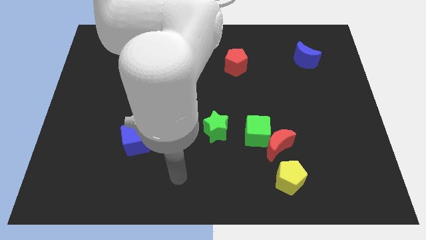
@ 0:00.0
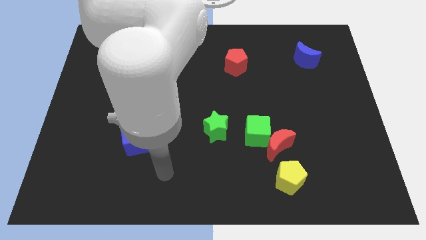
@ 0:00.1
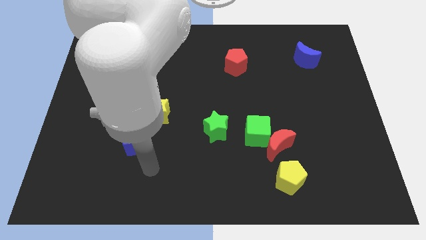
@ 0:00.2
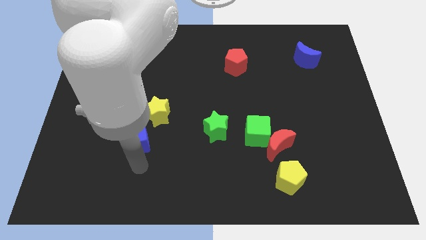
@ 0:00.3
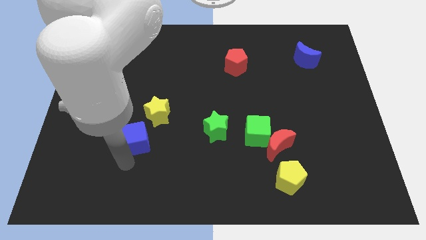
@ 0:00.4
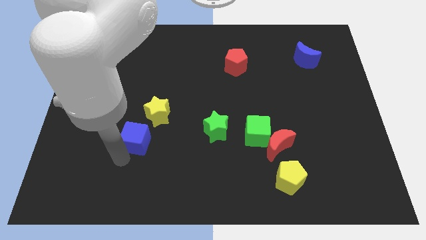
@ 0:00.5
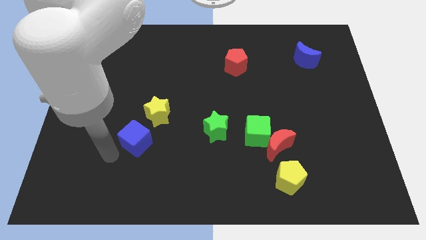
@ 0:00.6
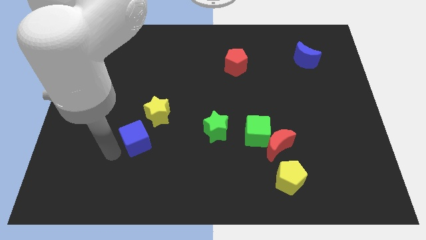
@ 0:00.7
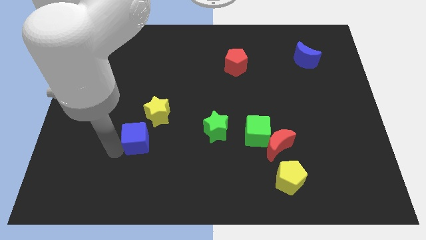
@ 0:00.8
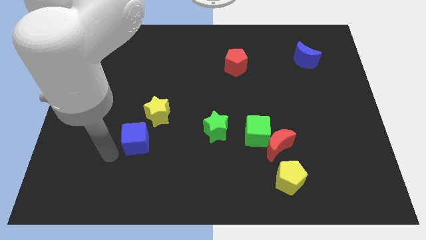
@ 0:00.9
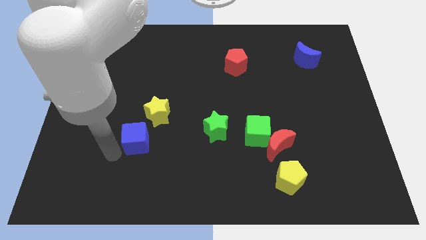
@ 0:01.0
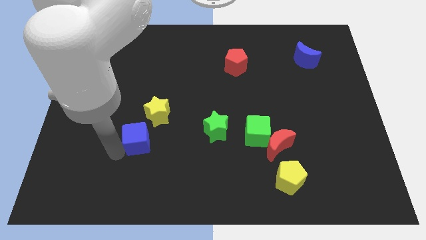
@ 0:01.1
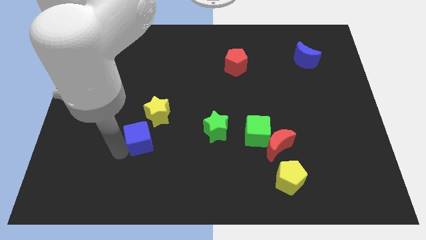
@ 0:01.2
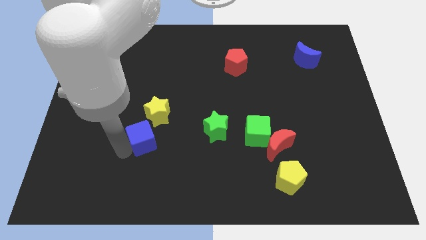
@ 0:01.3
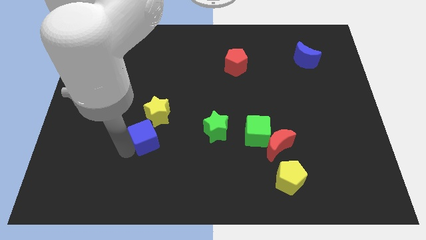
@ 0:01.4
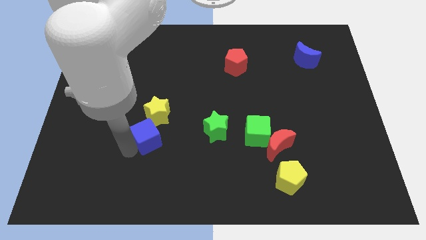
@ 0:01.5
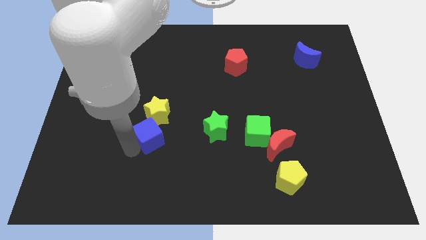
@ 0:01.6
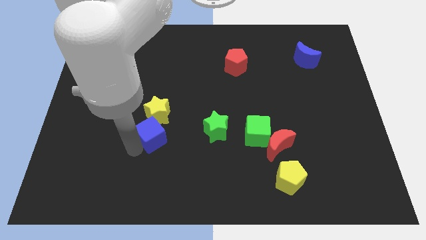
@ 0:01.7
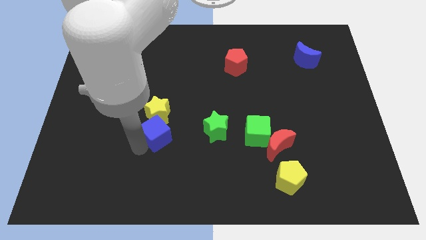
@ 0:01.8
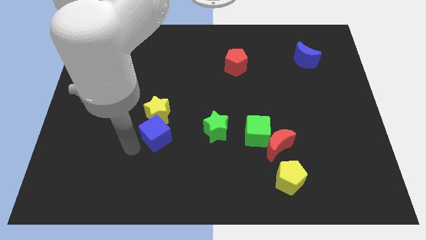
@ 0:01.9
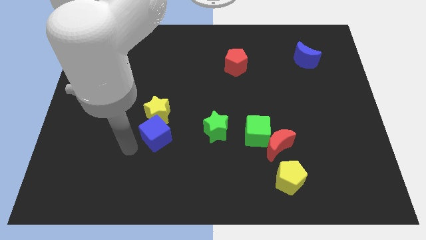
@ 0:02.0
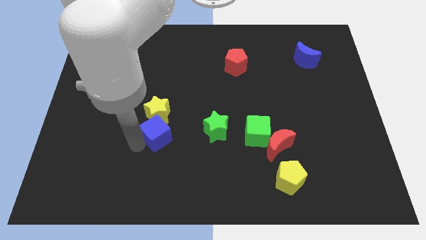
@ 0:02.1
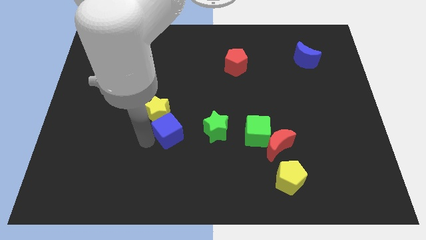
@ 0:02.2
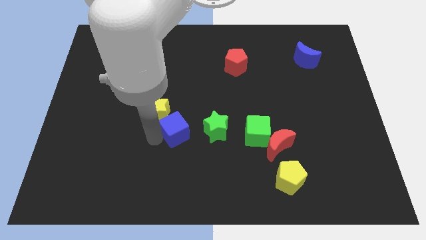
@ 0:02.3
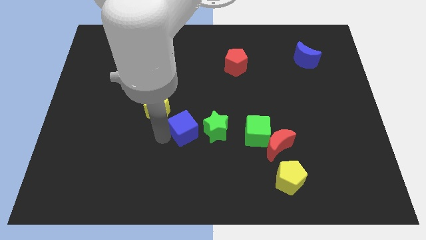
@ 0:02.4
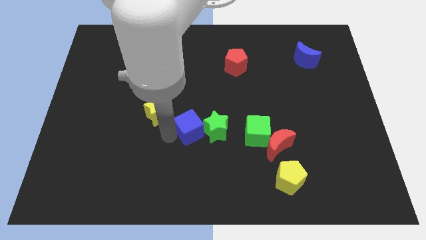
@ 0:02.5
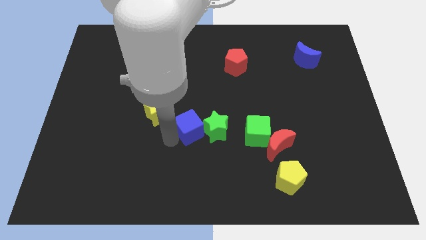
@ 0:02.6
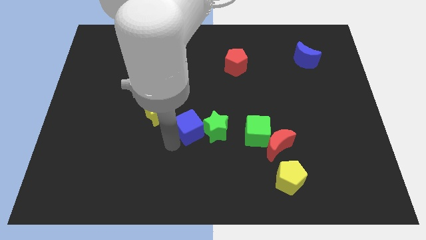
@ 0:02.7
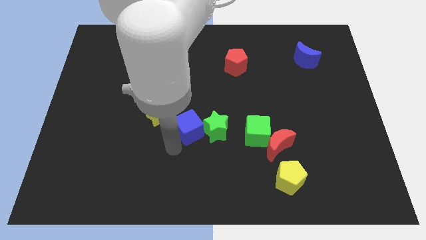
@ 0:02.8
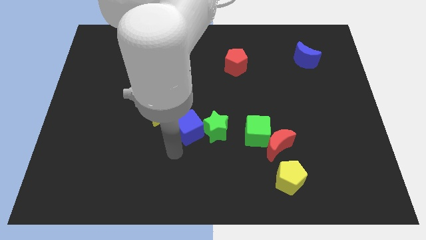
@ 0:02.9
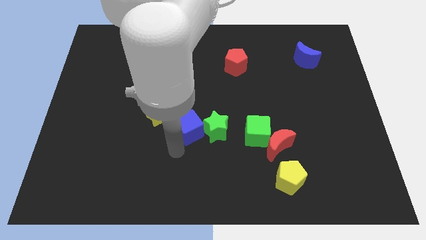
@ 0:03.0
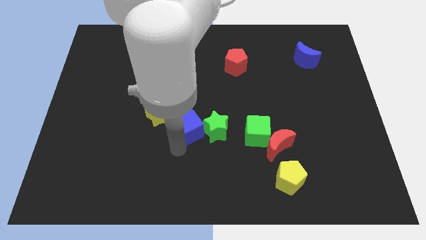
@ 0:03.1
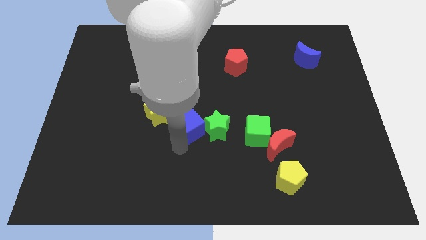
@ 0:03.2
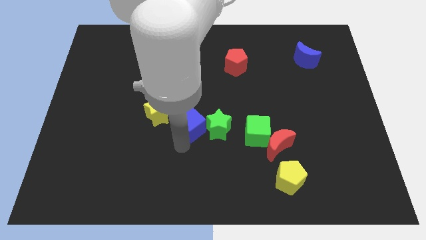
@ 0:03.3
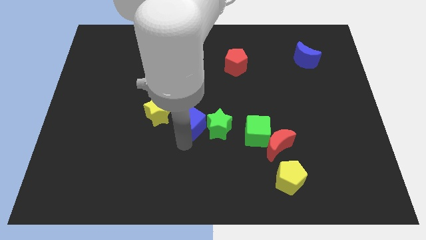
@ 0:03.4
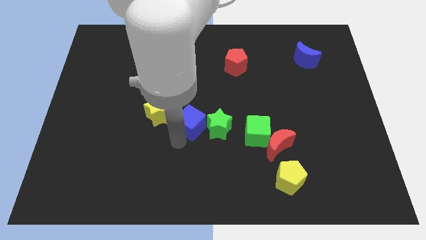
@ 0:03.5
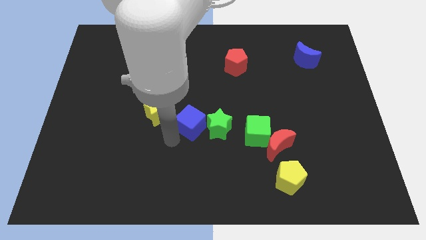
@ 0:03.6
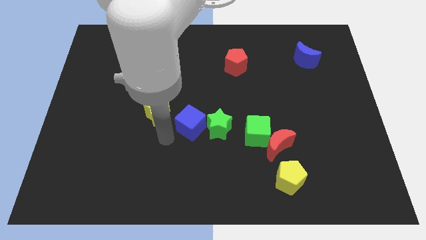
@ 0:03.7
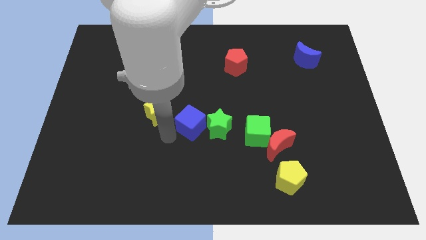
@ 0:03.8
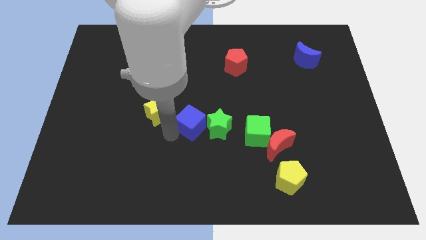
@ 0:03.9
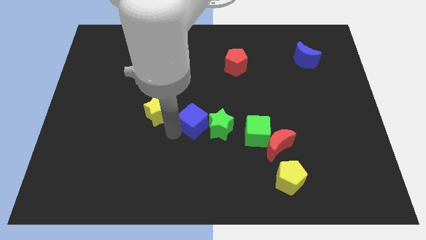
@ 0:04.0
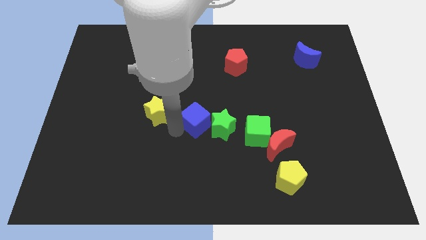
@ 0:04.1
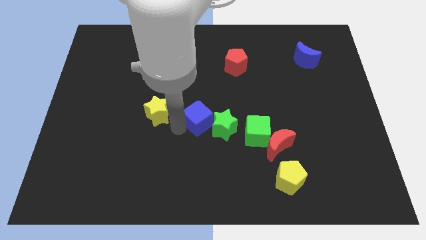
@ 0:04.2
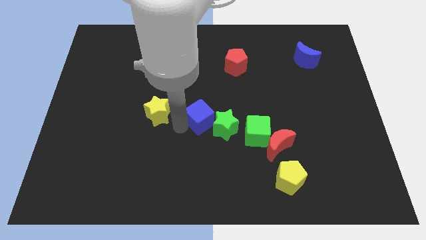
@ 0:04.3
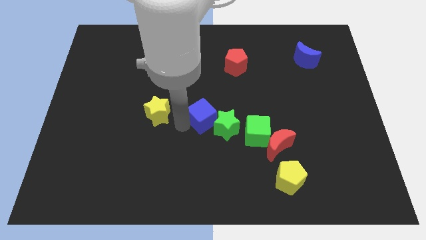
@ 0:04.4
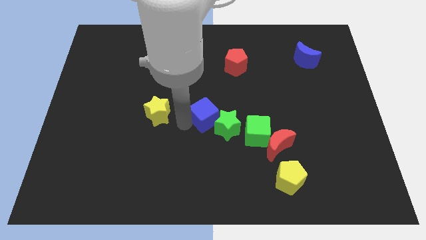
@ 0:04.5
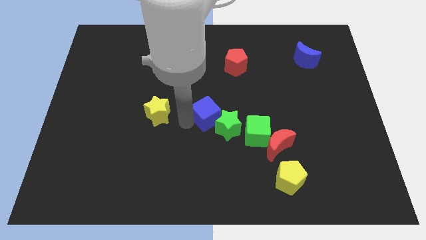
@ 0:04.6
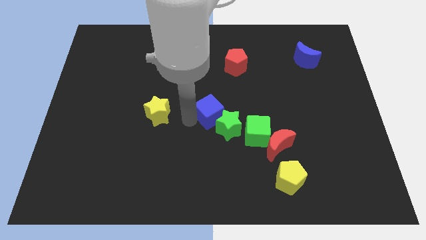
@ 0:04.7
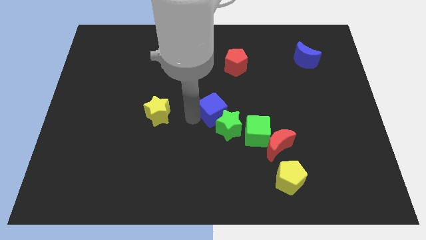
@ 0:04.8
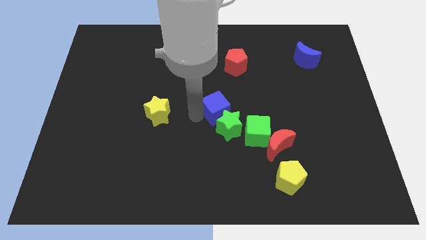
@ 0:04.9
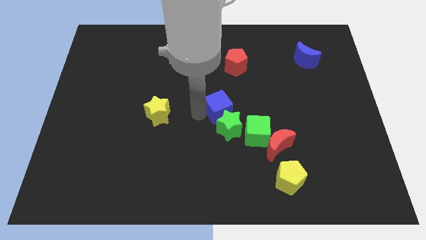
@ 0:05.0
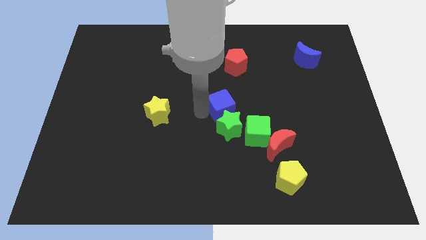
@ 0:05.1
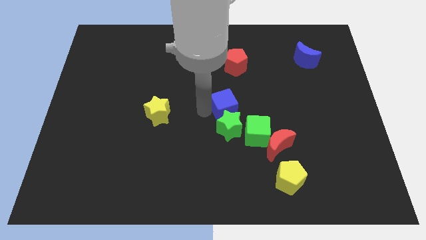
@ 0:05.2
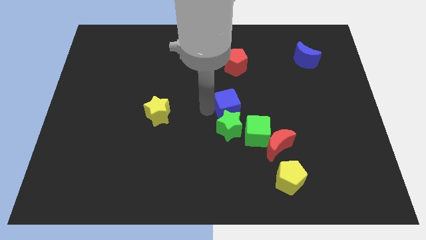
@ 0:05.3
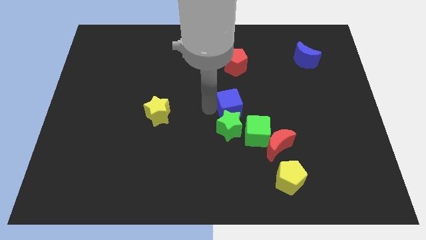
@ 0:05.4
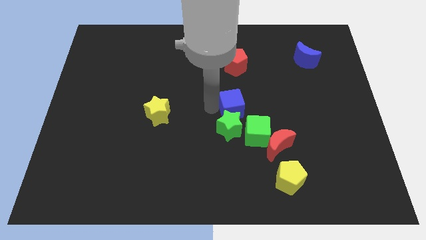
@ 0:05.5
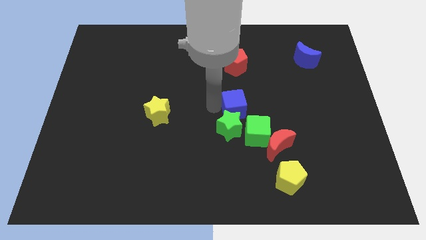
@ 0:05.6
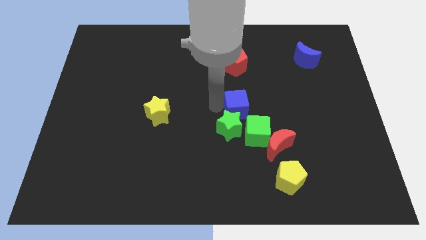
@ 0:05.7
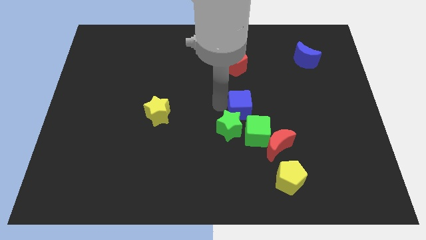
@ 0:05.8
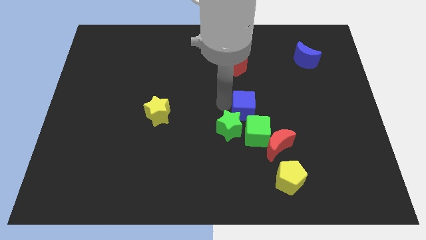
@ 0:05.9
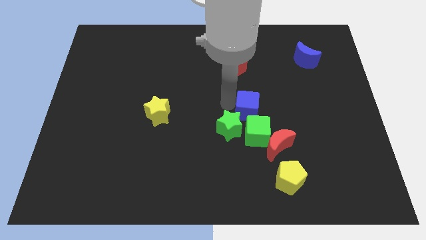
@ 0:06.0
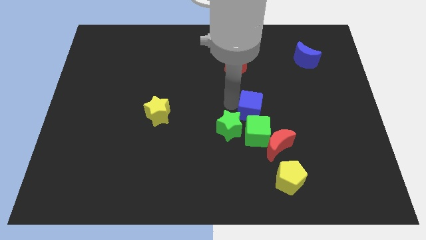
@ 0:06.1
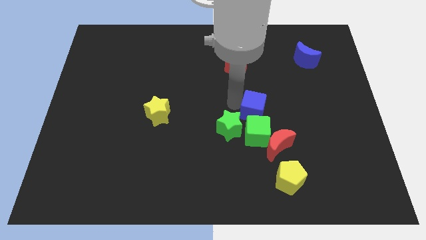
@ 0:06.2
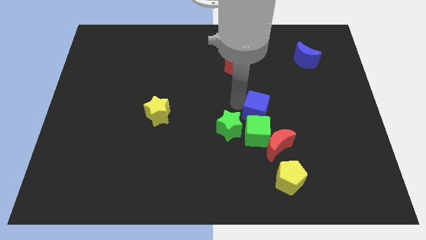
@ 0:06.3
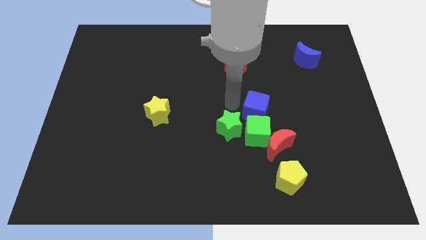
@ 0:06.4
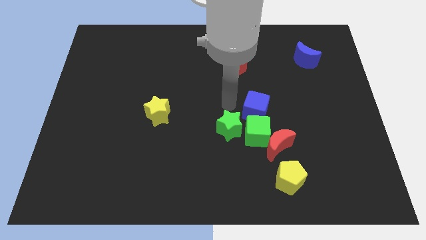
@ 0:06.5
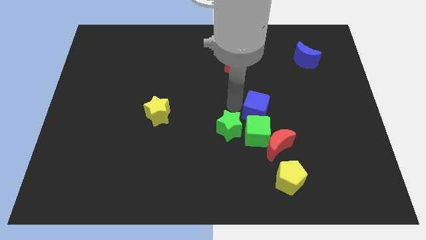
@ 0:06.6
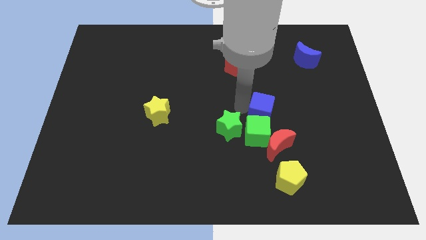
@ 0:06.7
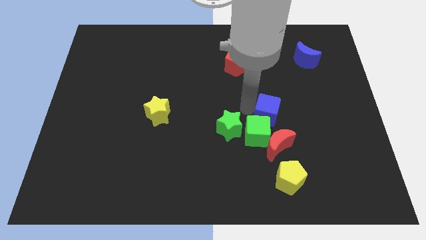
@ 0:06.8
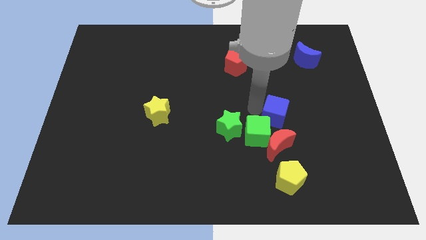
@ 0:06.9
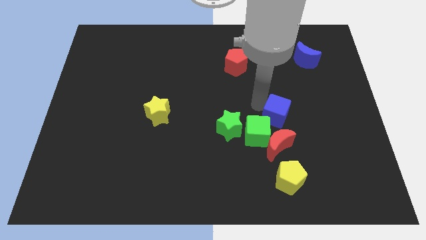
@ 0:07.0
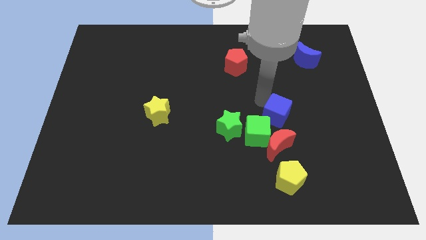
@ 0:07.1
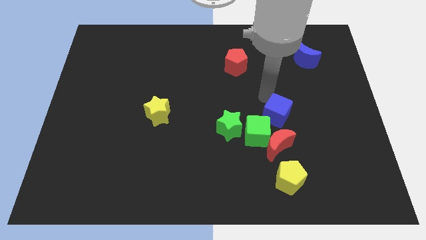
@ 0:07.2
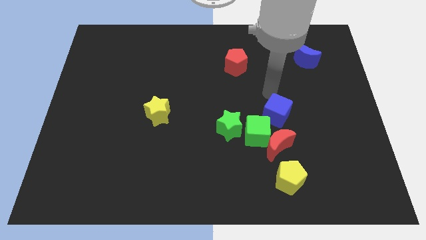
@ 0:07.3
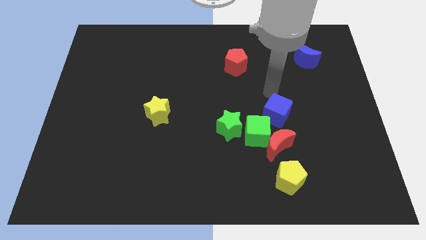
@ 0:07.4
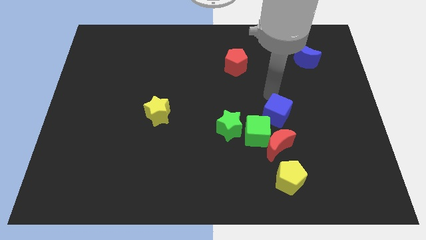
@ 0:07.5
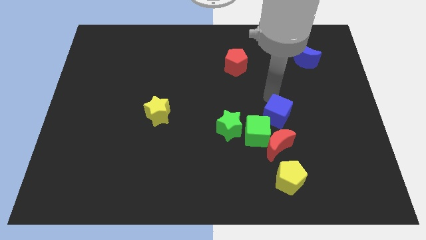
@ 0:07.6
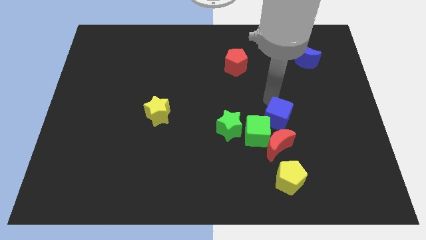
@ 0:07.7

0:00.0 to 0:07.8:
push the blue cube to the top side of the yellow pentagon
